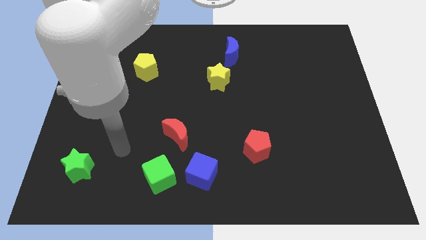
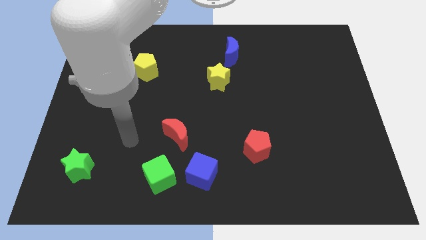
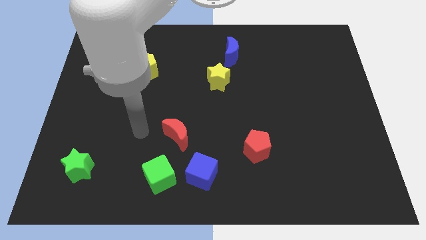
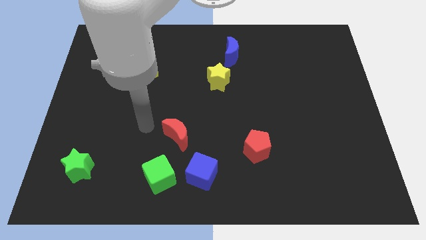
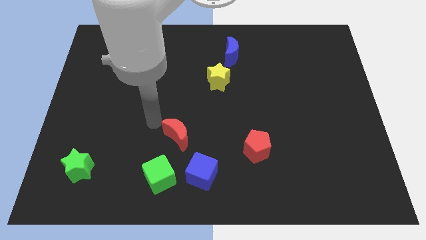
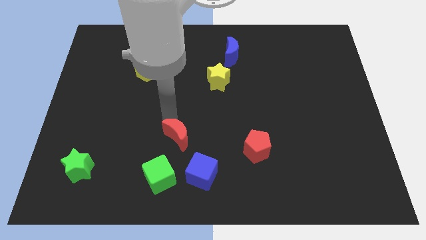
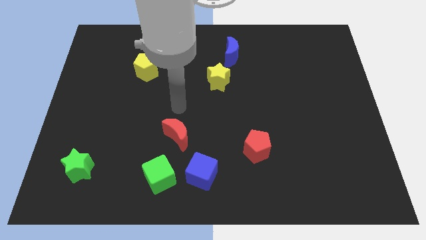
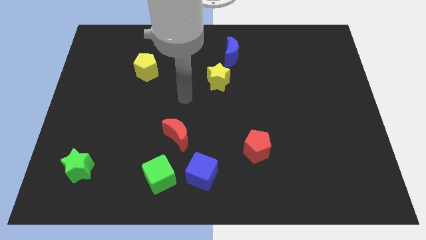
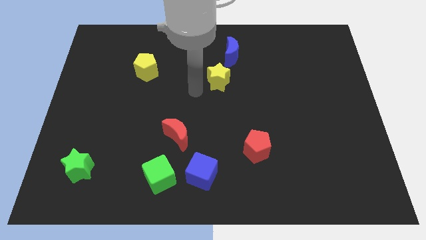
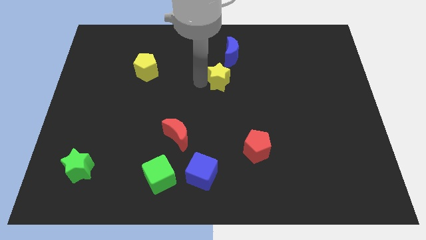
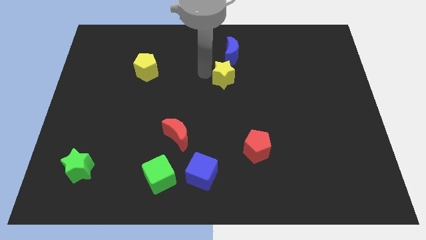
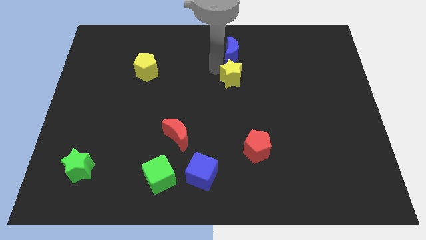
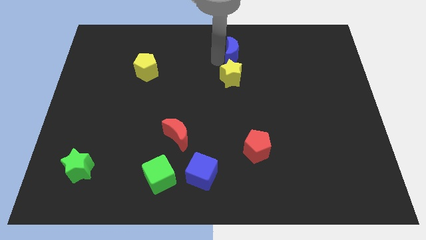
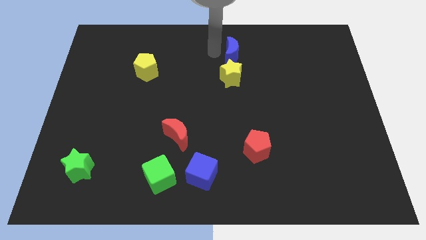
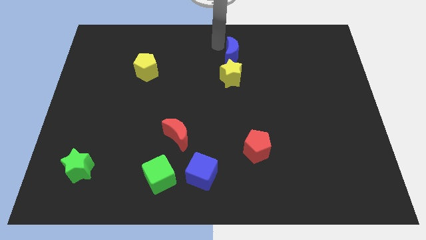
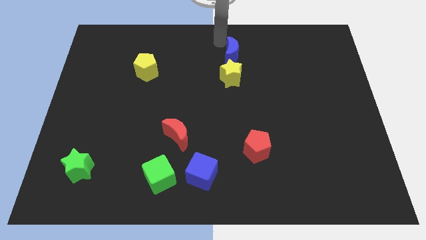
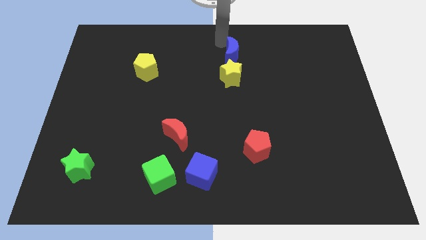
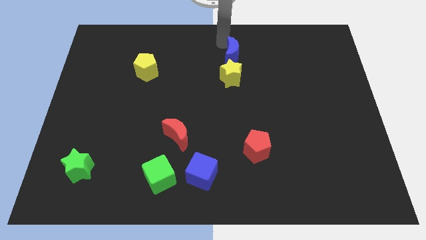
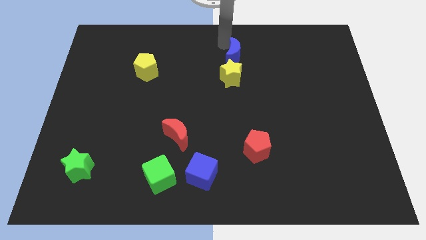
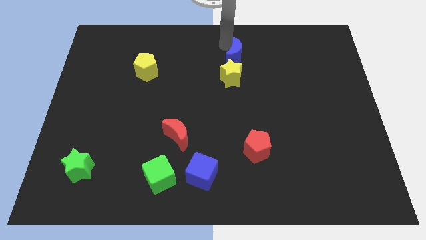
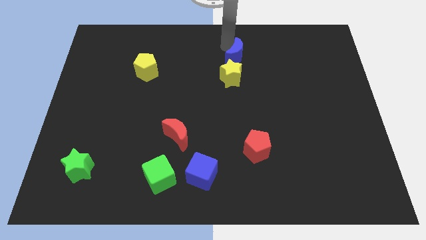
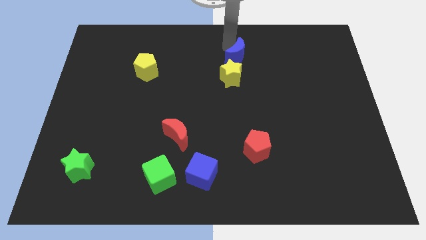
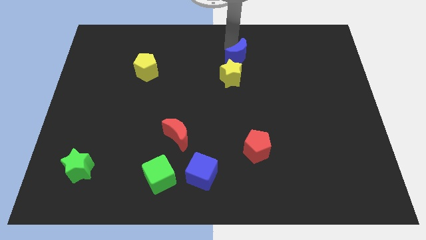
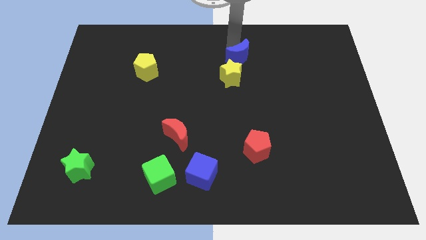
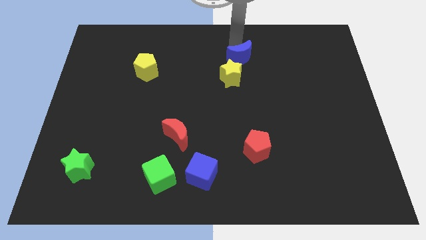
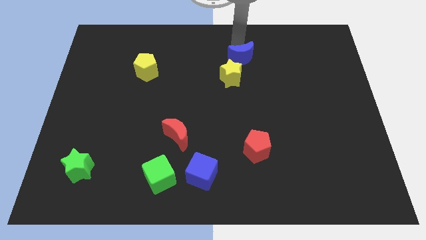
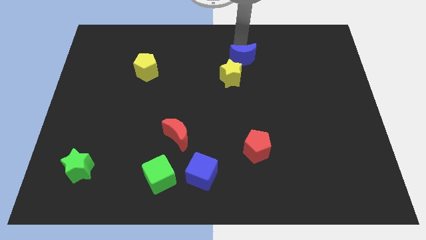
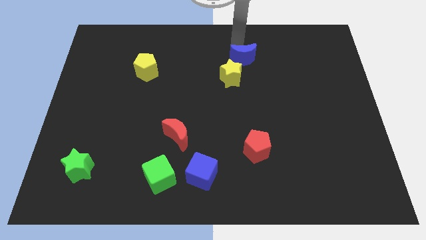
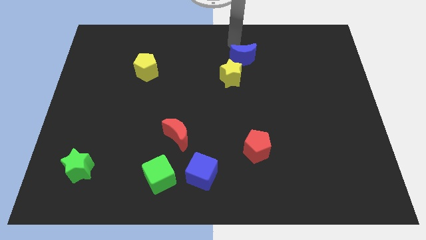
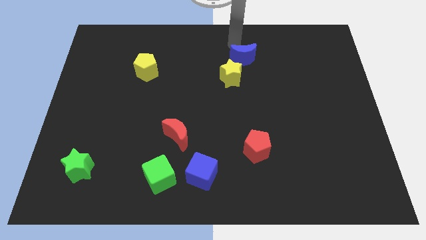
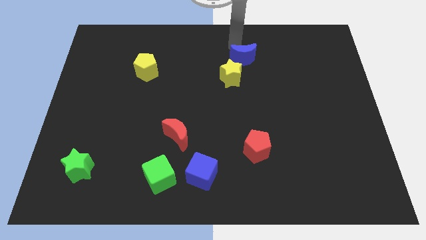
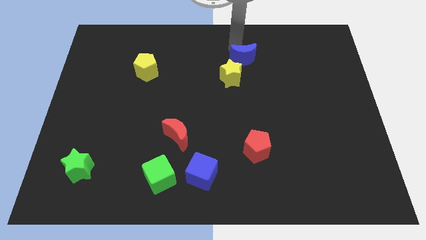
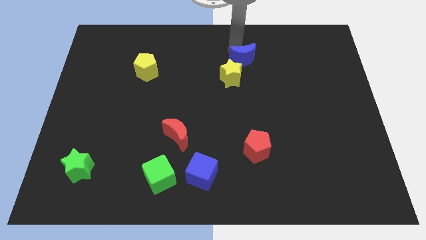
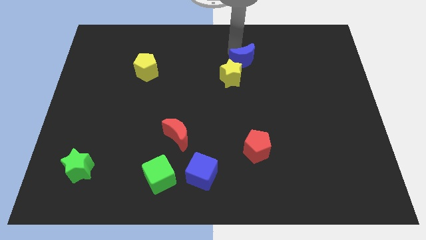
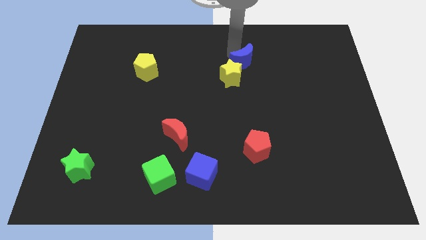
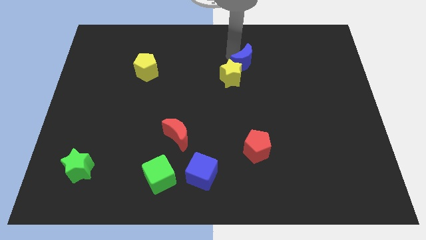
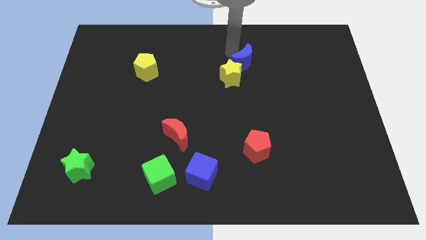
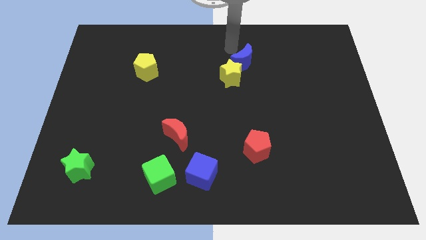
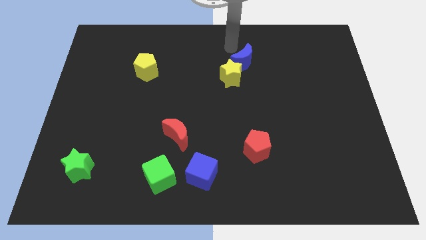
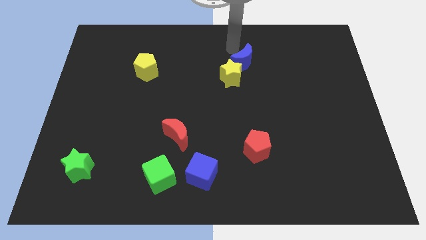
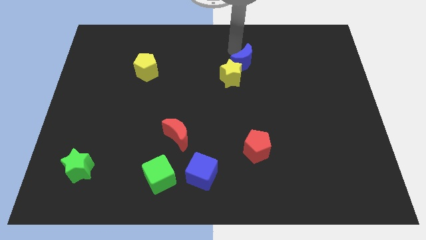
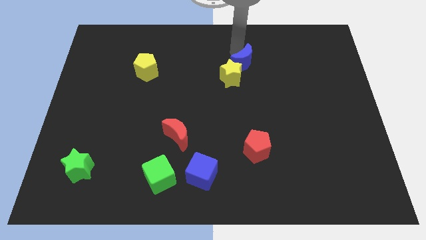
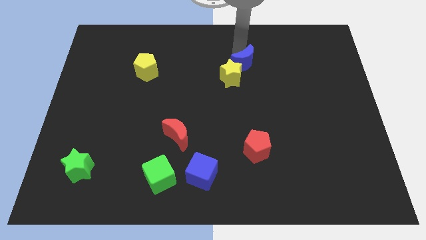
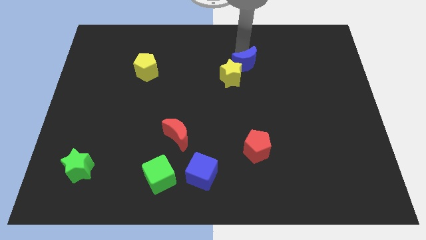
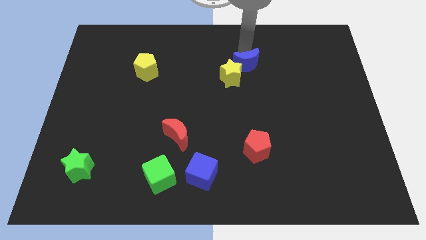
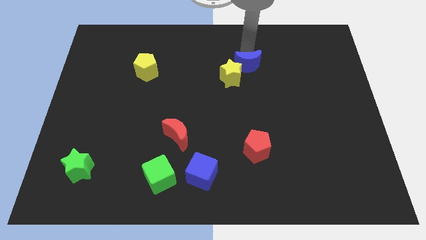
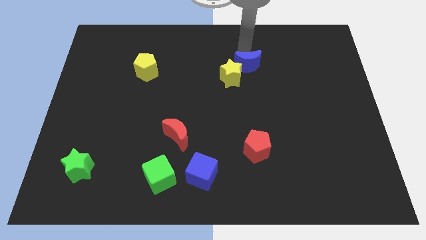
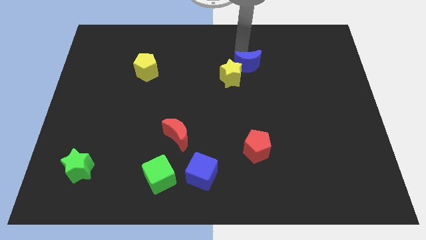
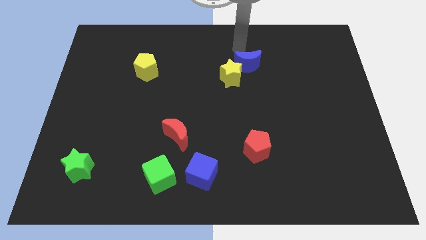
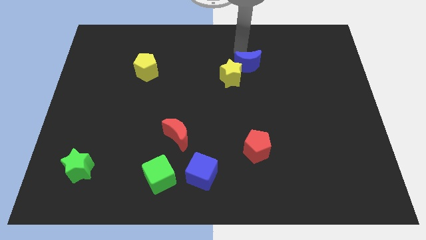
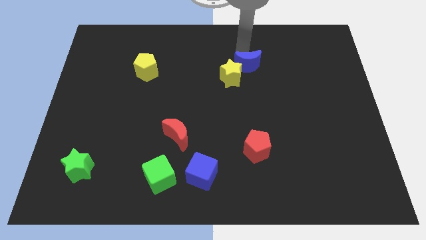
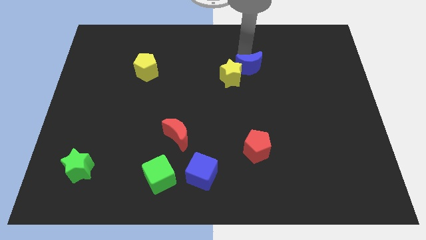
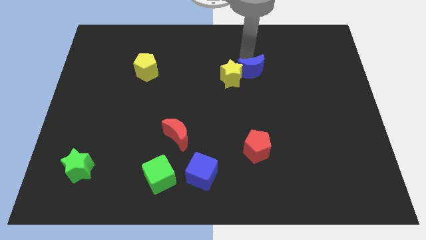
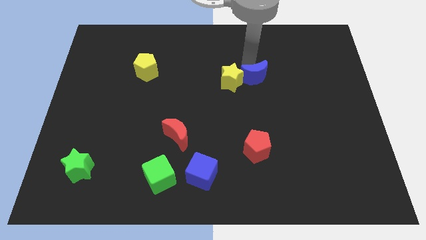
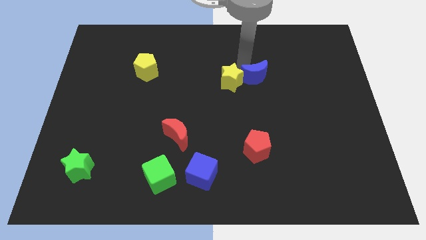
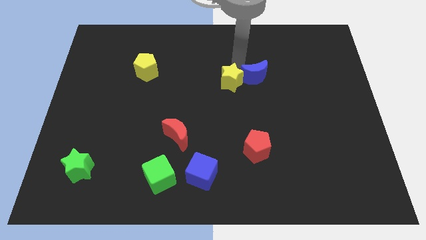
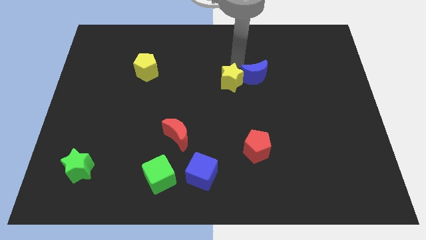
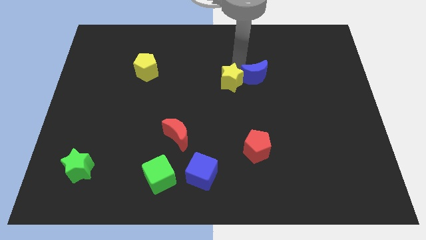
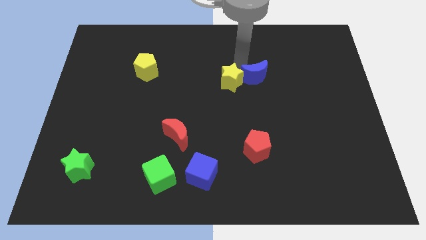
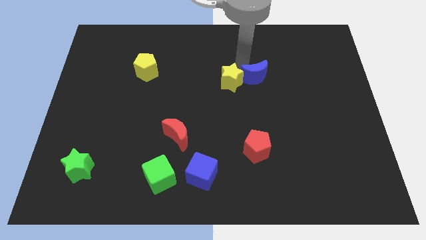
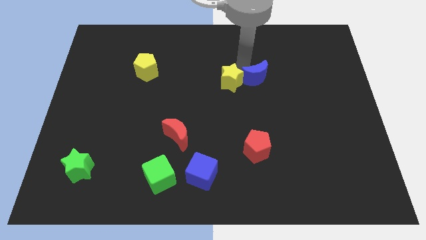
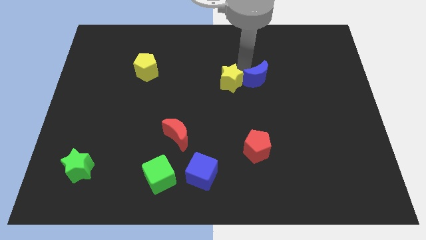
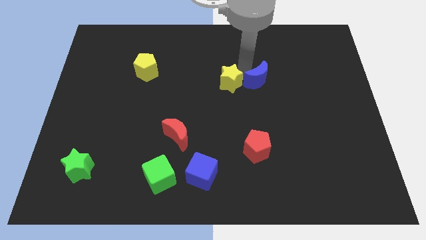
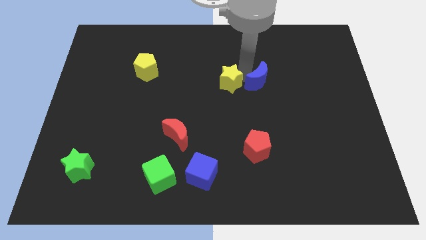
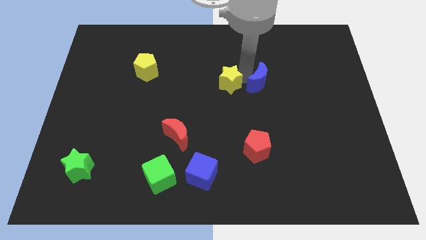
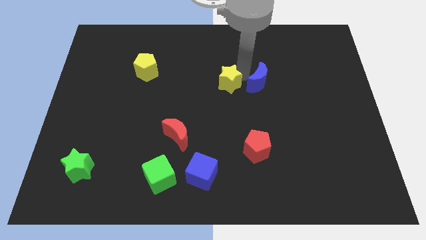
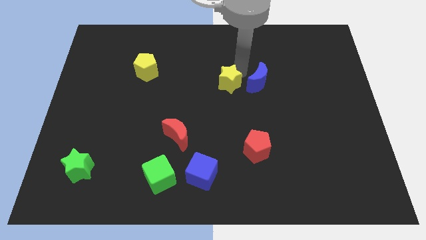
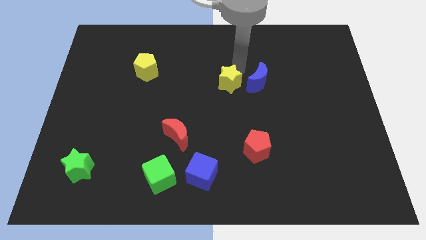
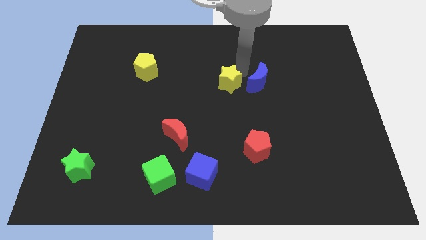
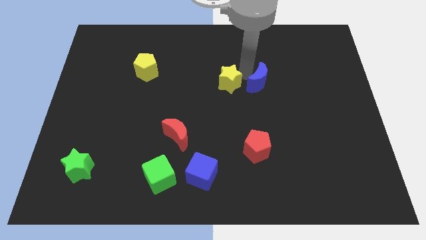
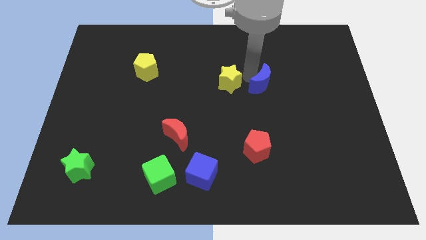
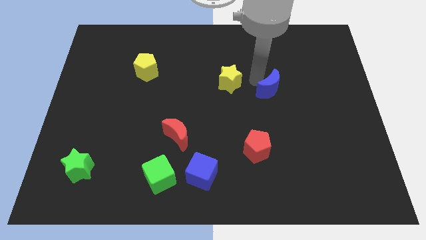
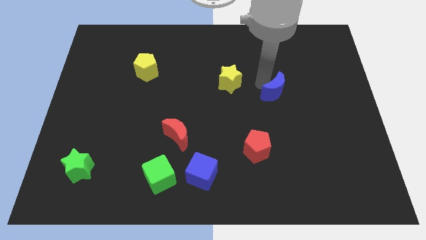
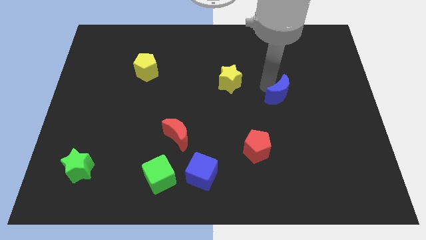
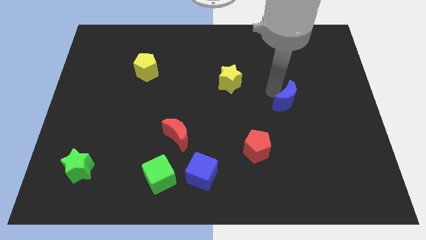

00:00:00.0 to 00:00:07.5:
move the blue moon downwards and right

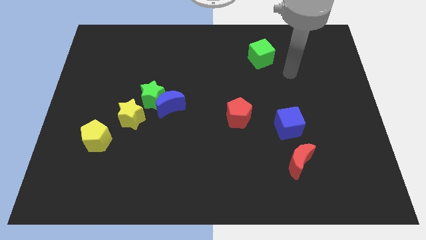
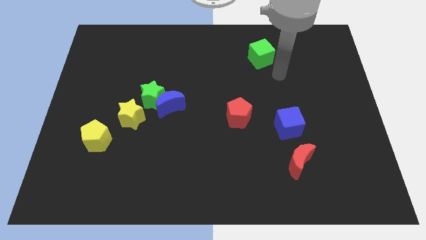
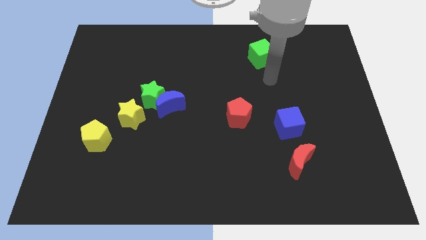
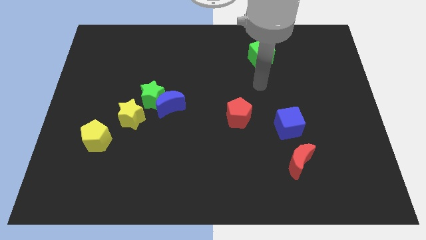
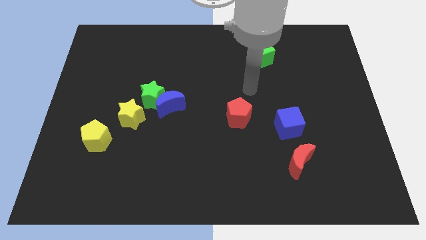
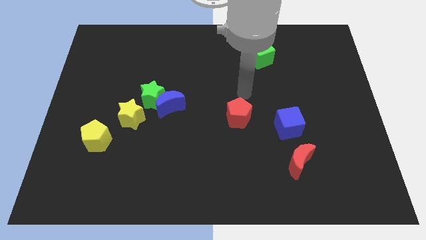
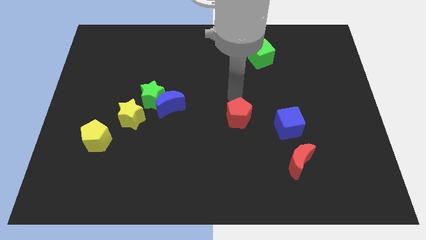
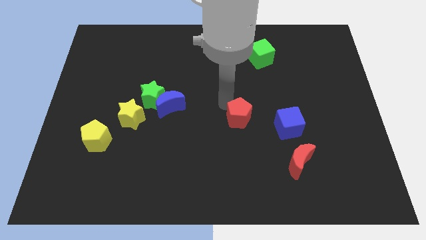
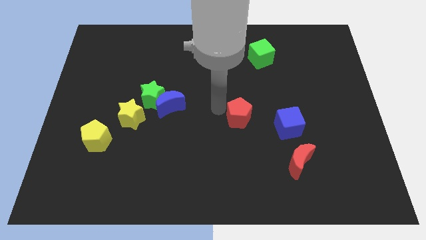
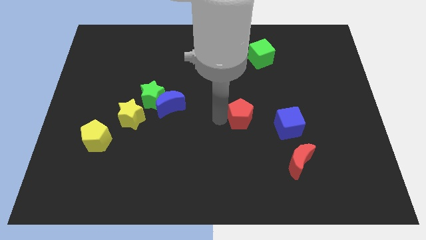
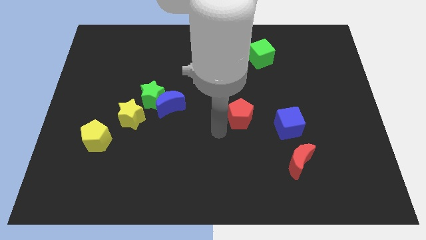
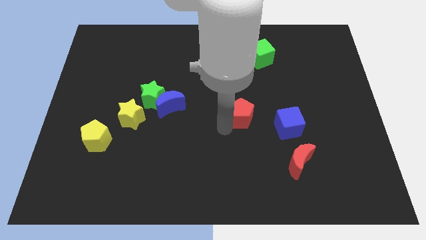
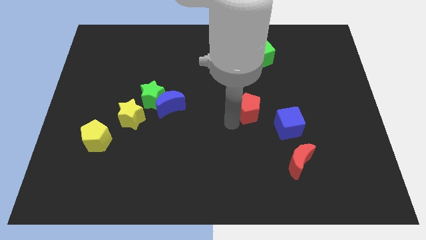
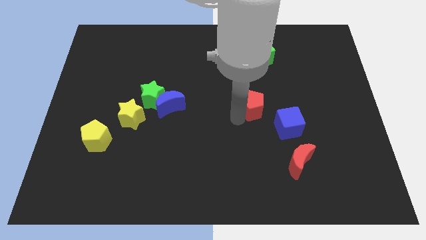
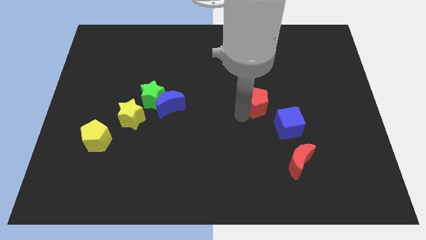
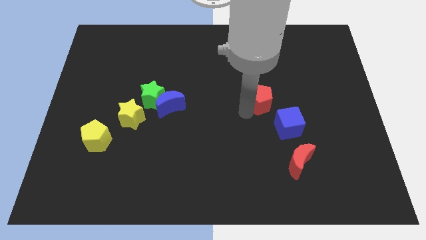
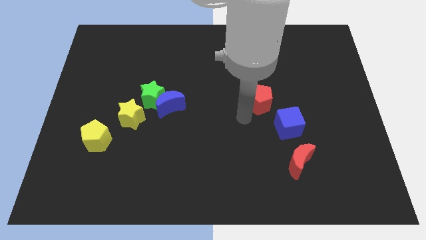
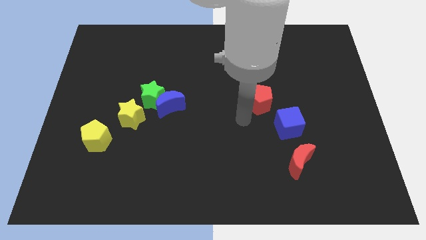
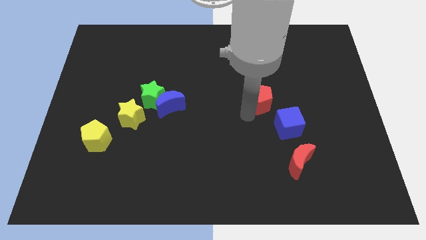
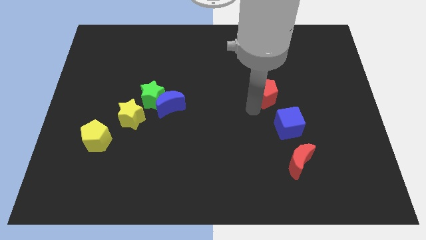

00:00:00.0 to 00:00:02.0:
move the red pentagon diagonally upwards and right a little bit
